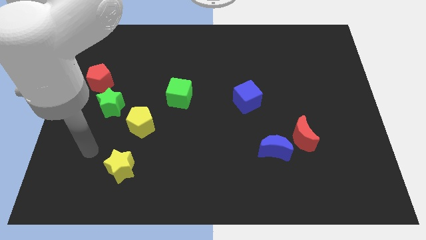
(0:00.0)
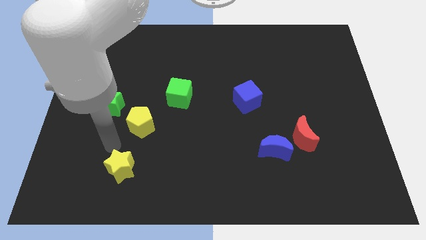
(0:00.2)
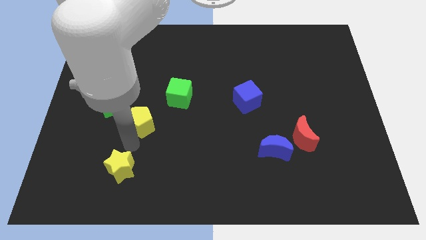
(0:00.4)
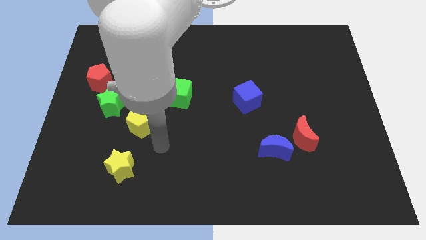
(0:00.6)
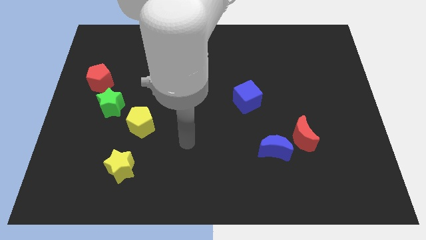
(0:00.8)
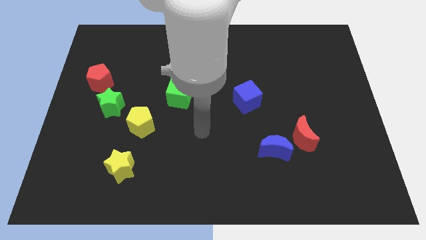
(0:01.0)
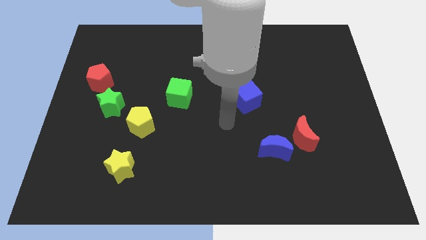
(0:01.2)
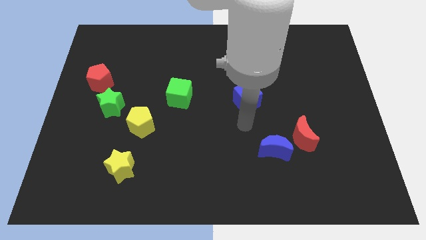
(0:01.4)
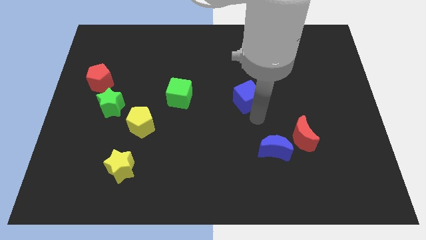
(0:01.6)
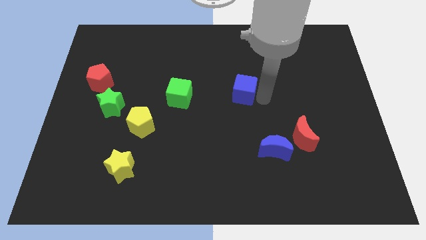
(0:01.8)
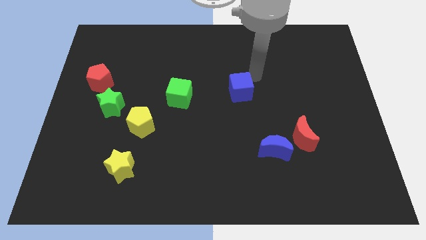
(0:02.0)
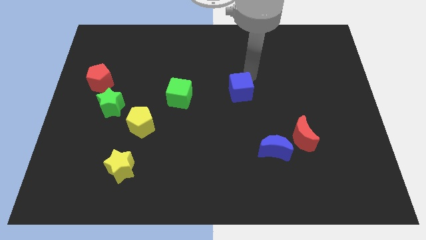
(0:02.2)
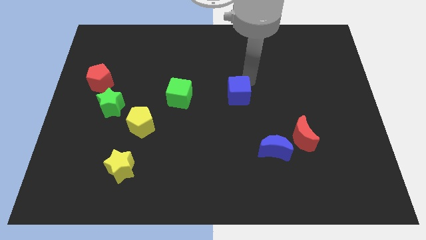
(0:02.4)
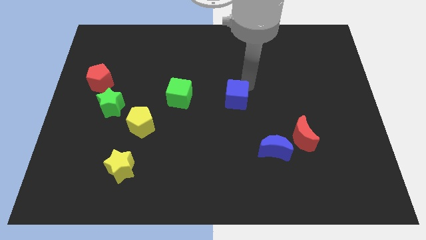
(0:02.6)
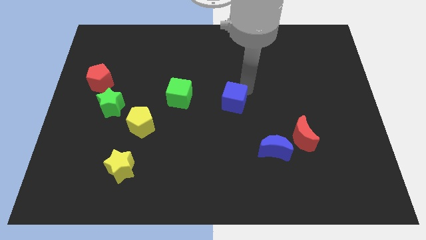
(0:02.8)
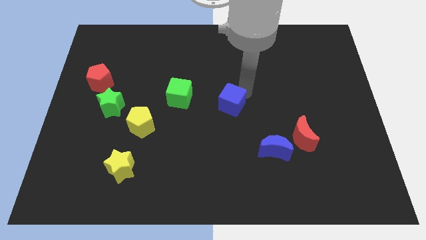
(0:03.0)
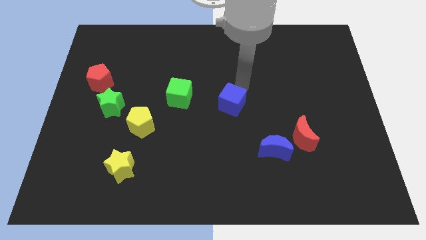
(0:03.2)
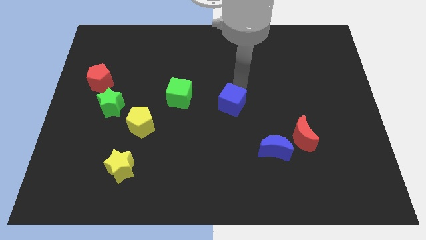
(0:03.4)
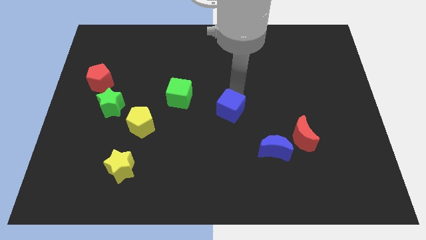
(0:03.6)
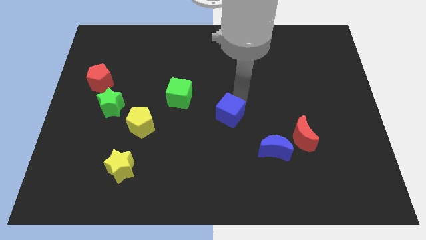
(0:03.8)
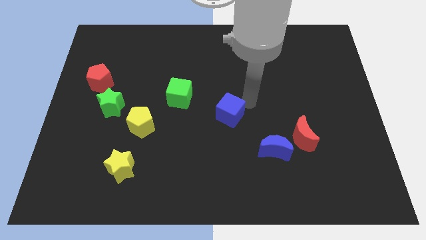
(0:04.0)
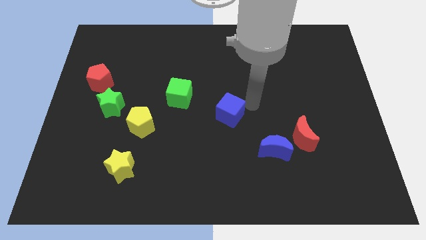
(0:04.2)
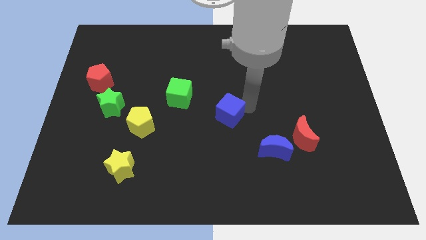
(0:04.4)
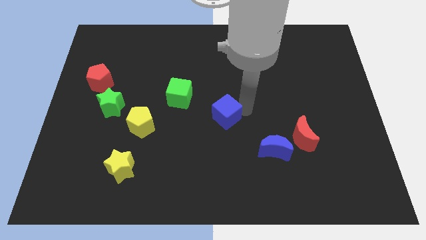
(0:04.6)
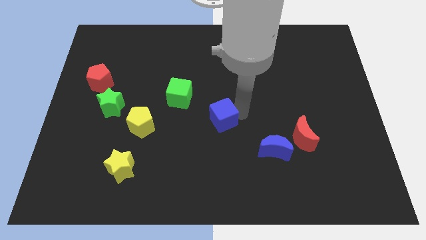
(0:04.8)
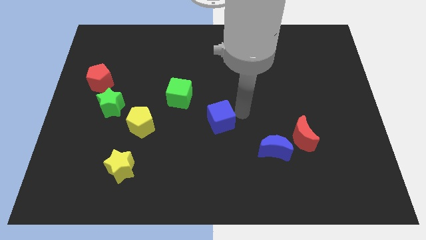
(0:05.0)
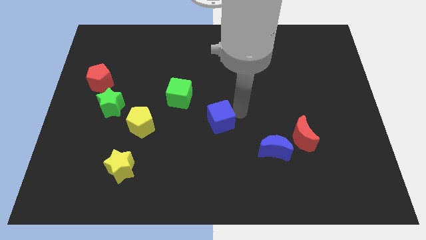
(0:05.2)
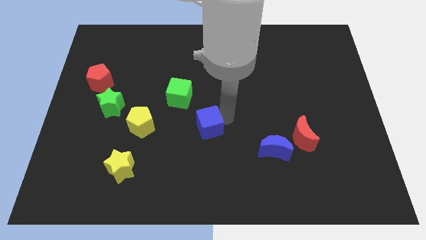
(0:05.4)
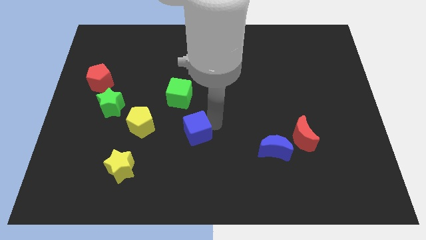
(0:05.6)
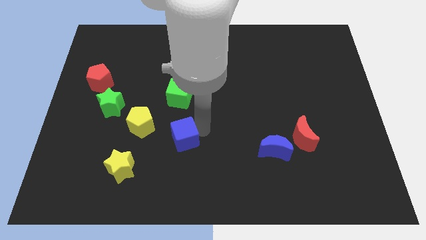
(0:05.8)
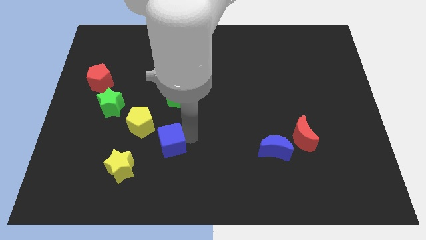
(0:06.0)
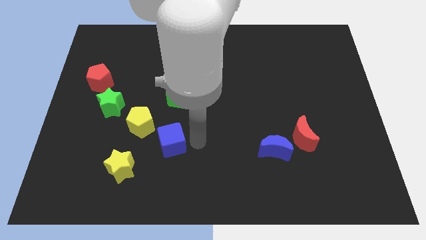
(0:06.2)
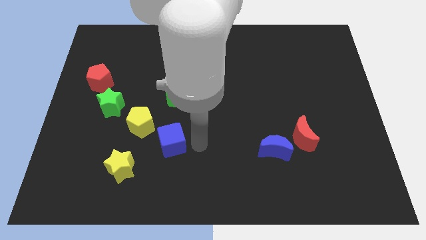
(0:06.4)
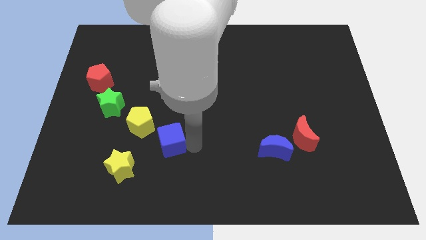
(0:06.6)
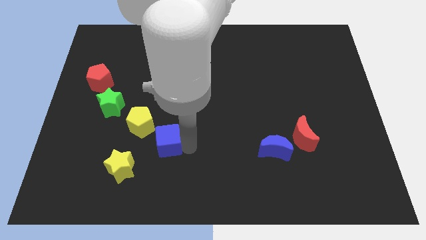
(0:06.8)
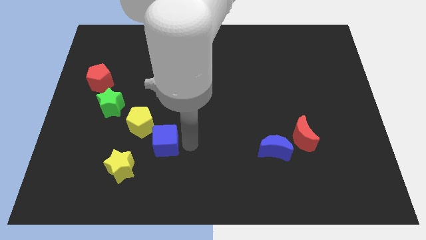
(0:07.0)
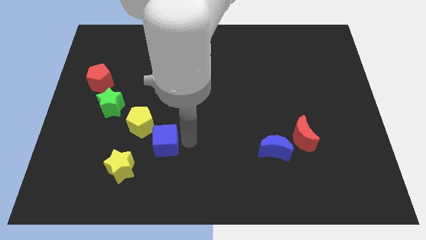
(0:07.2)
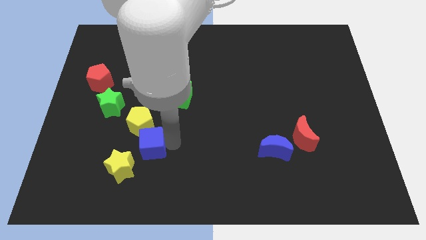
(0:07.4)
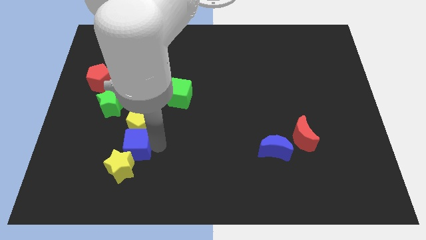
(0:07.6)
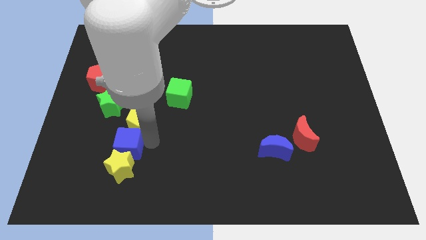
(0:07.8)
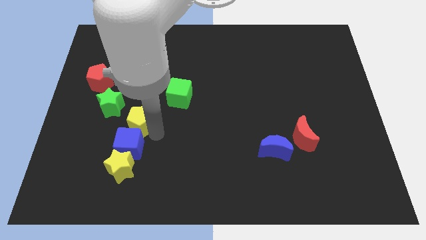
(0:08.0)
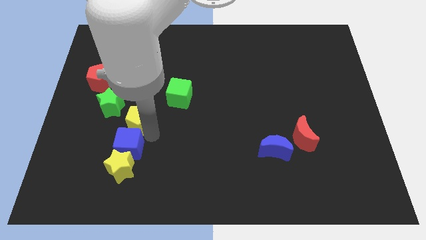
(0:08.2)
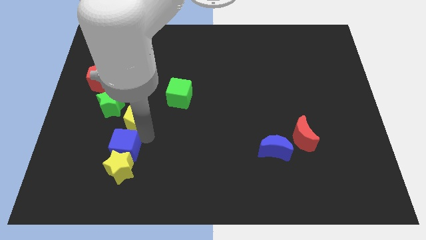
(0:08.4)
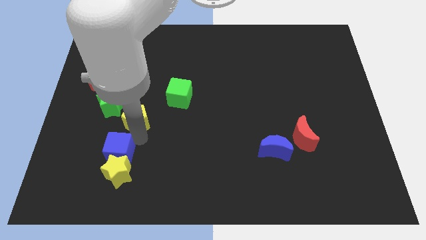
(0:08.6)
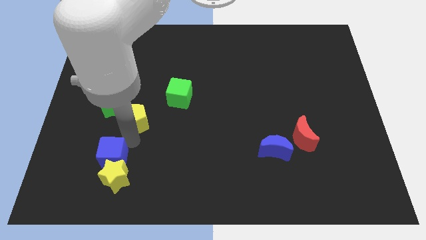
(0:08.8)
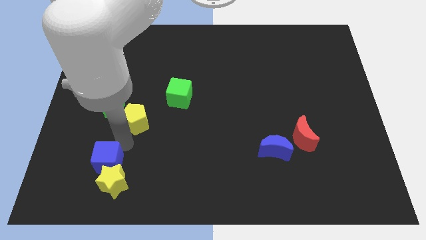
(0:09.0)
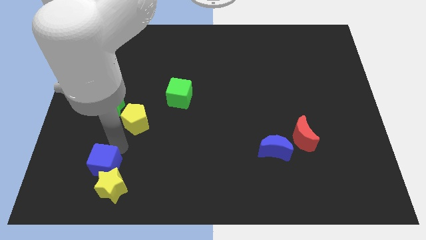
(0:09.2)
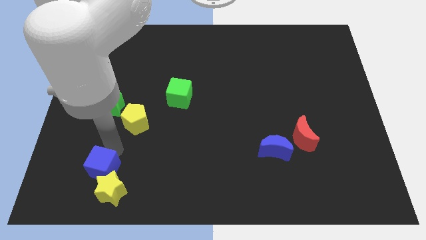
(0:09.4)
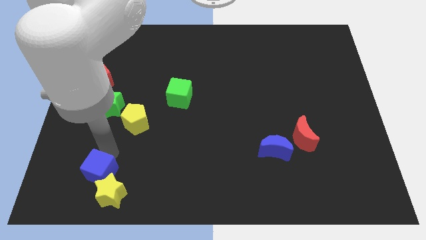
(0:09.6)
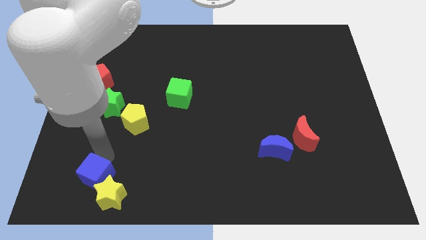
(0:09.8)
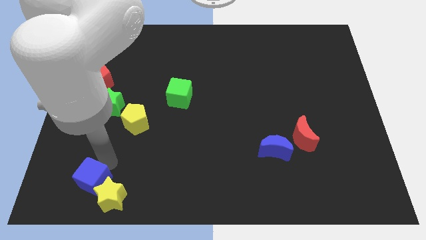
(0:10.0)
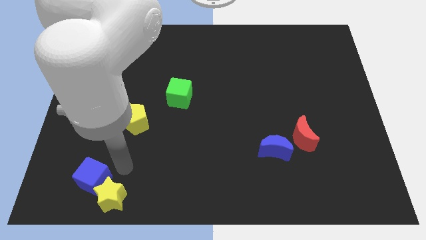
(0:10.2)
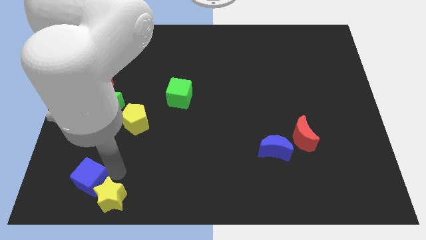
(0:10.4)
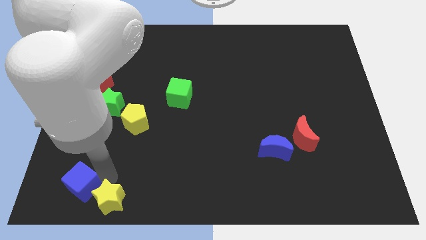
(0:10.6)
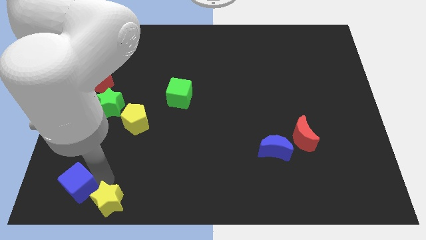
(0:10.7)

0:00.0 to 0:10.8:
push the blue cube to the bottom left

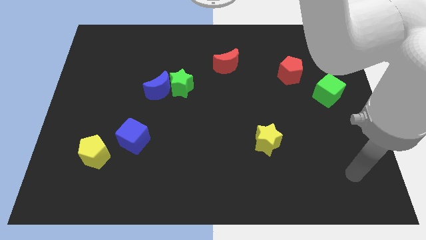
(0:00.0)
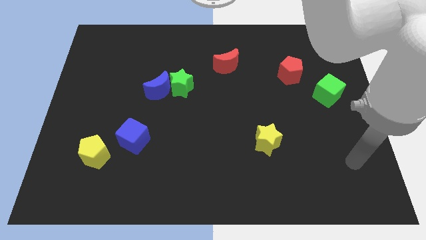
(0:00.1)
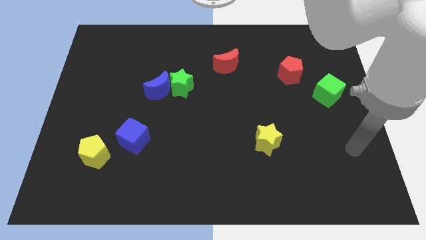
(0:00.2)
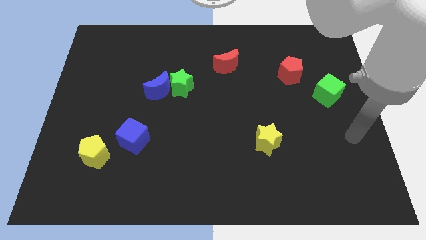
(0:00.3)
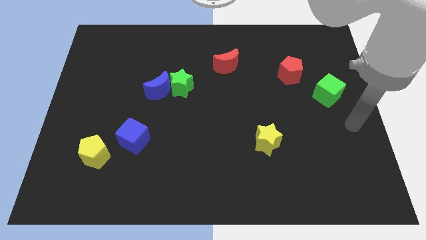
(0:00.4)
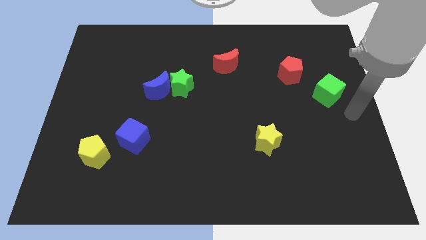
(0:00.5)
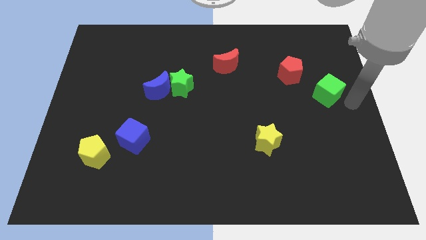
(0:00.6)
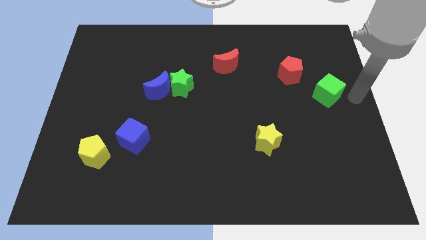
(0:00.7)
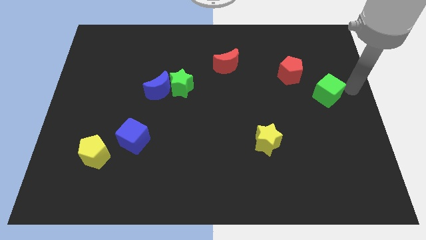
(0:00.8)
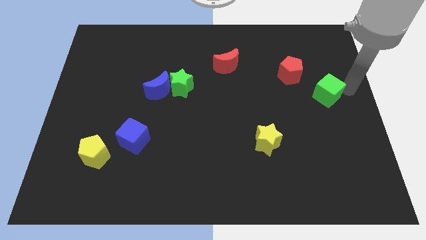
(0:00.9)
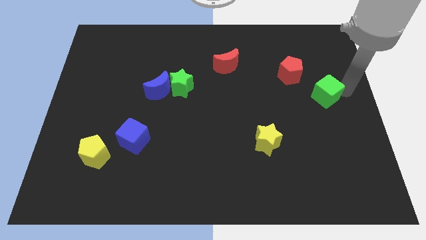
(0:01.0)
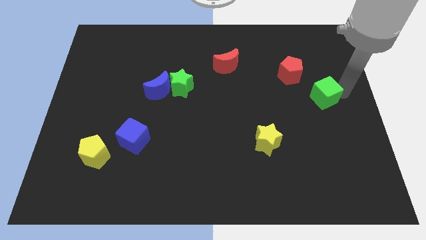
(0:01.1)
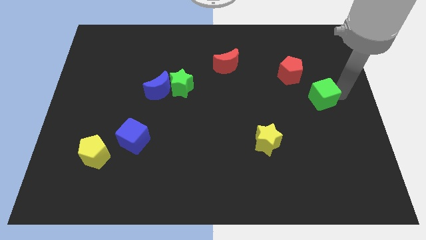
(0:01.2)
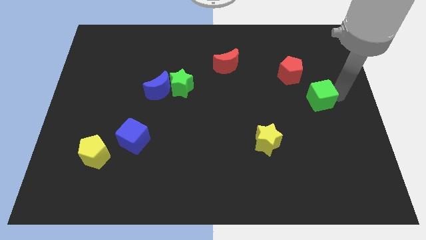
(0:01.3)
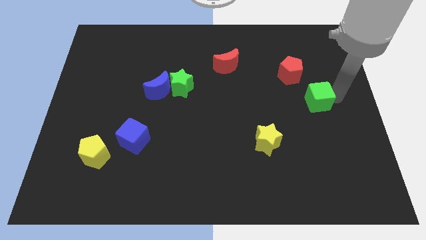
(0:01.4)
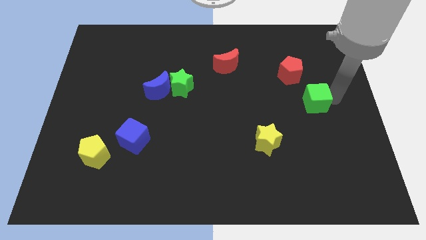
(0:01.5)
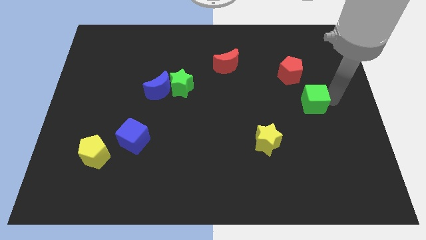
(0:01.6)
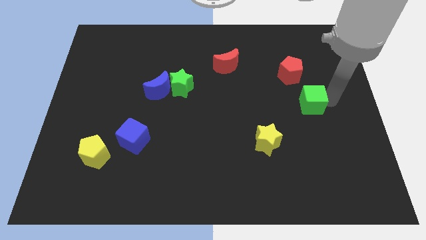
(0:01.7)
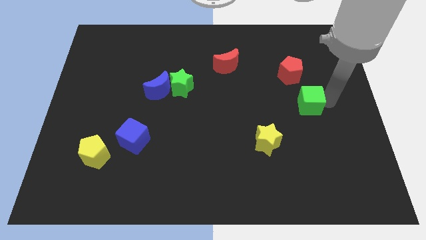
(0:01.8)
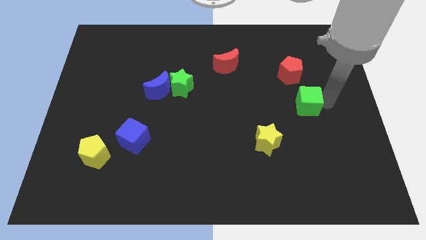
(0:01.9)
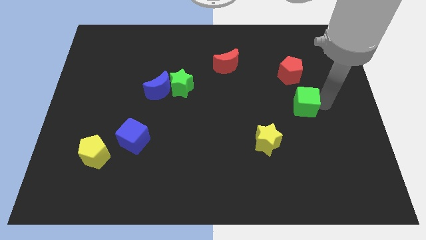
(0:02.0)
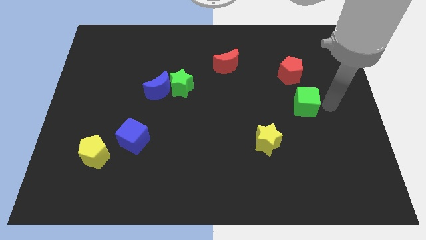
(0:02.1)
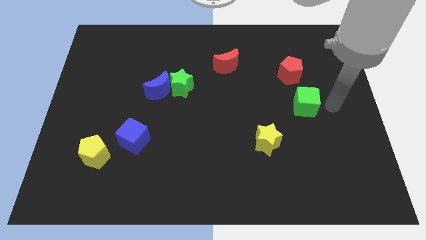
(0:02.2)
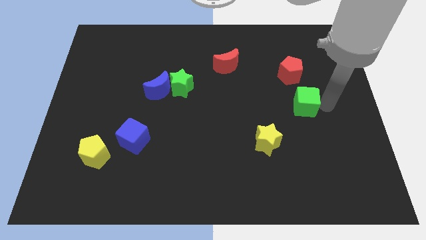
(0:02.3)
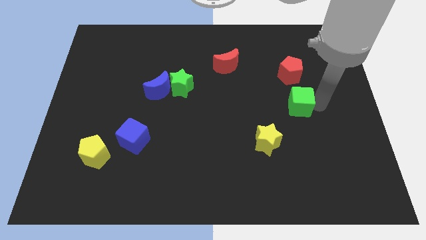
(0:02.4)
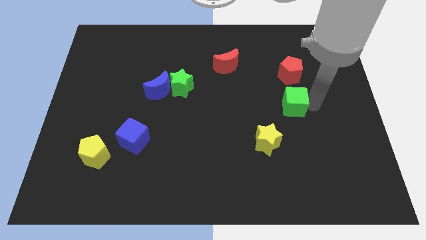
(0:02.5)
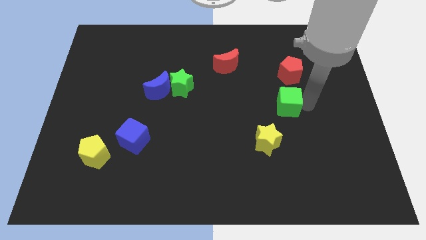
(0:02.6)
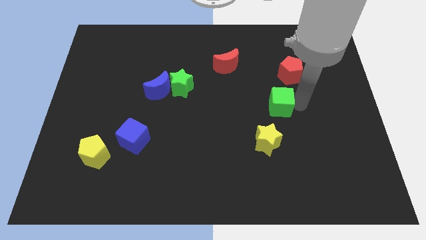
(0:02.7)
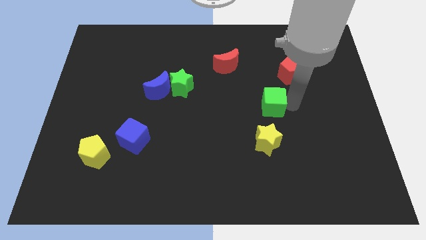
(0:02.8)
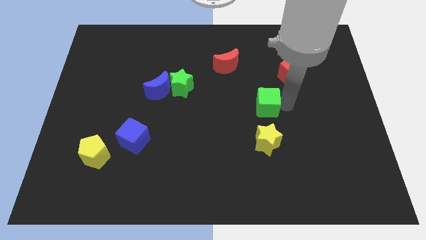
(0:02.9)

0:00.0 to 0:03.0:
put the green cube to the middle
